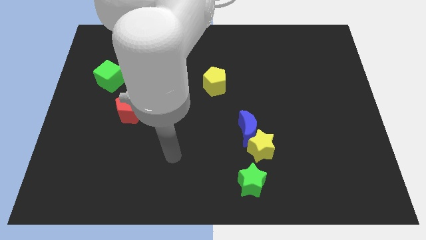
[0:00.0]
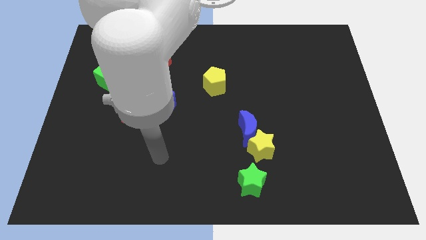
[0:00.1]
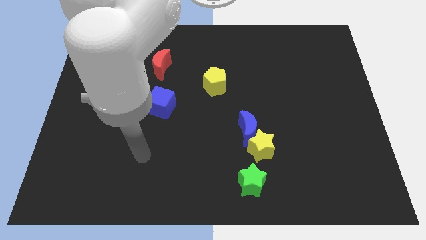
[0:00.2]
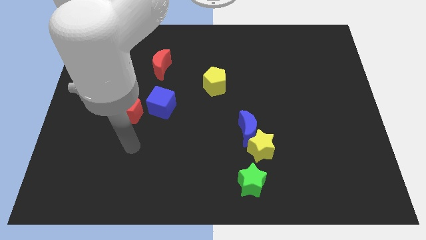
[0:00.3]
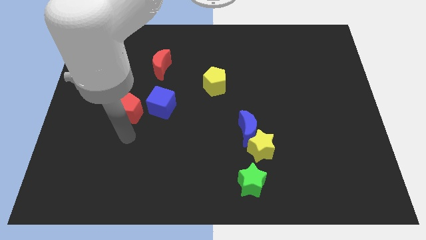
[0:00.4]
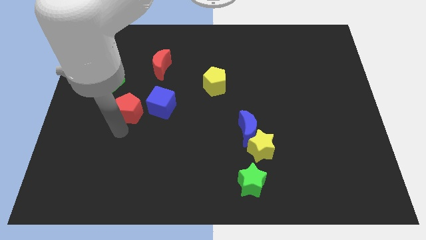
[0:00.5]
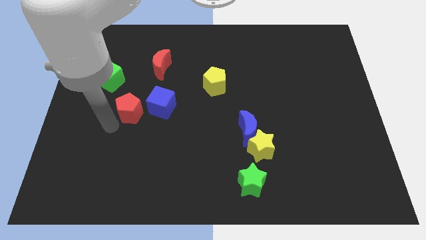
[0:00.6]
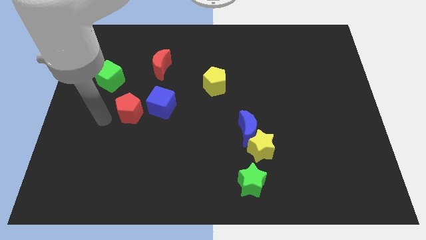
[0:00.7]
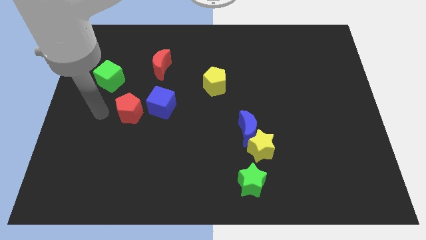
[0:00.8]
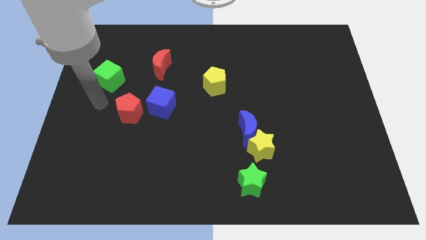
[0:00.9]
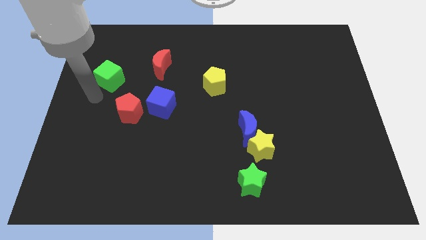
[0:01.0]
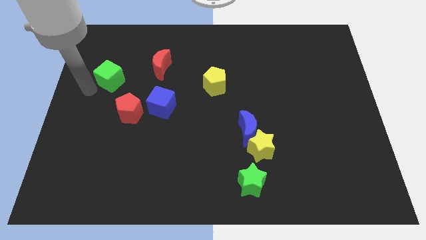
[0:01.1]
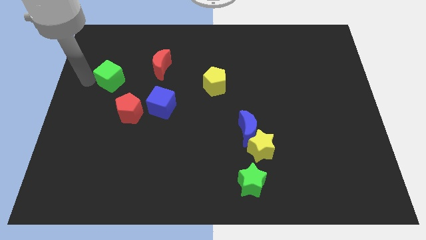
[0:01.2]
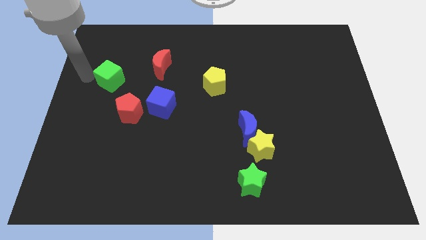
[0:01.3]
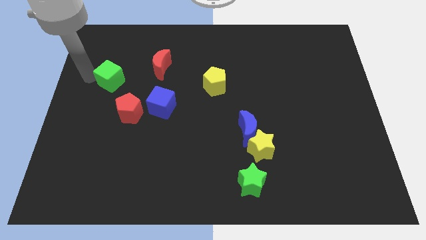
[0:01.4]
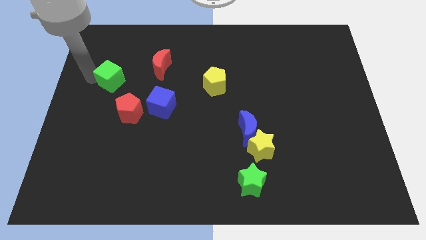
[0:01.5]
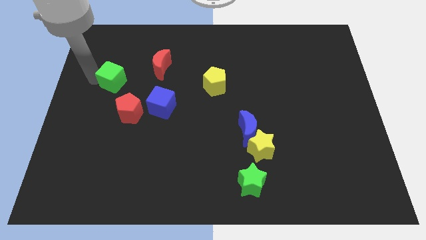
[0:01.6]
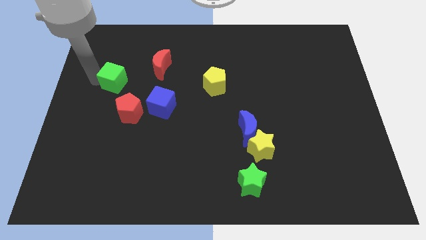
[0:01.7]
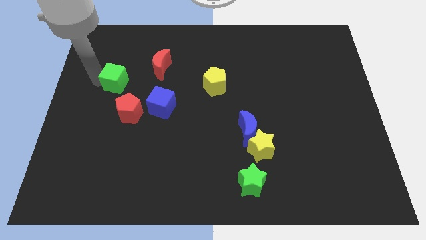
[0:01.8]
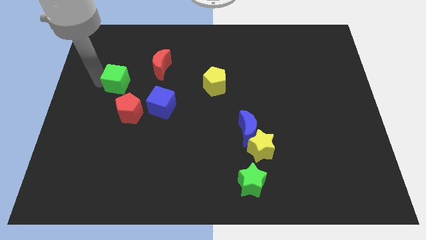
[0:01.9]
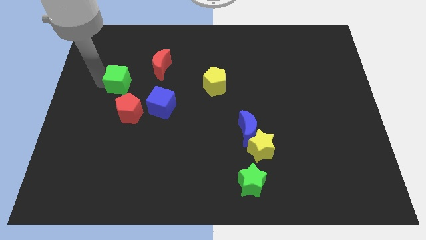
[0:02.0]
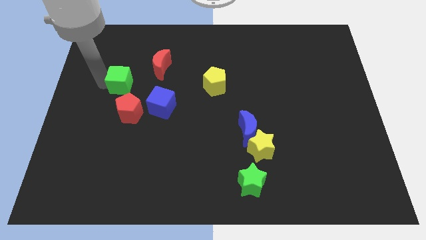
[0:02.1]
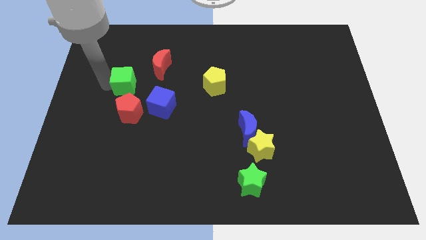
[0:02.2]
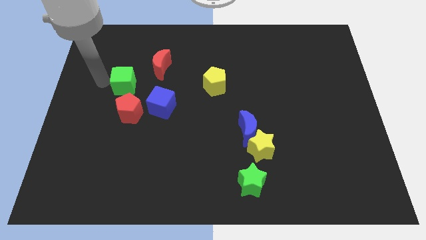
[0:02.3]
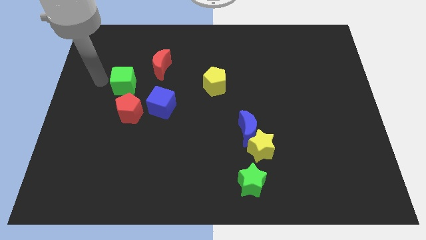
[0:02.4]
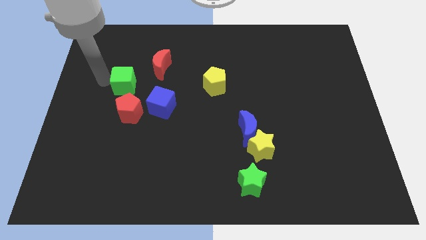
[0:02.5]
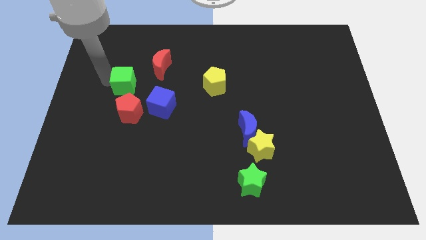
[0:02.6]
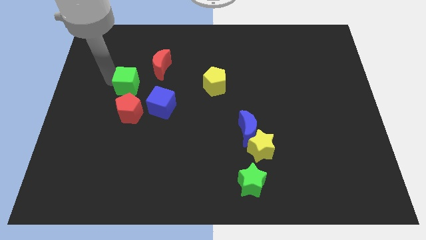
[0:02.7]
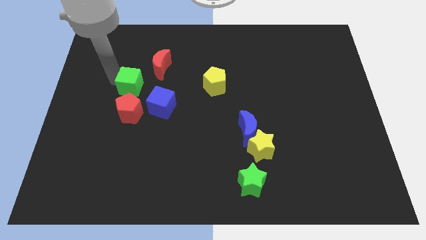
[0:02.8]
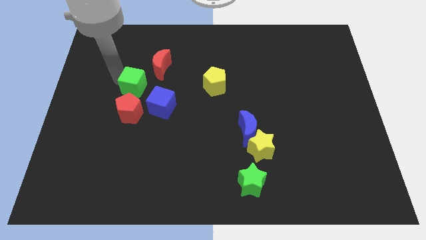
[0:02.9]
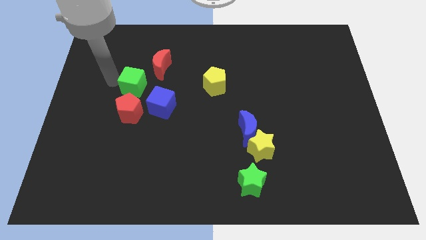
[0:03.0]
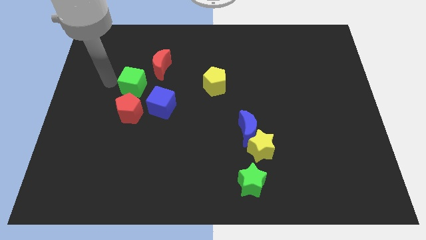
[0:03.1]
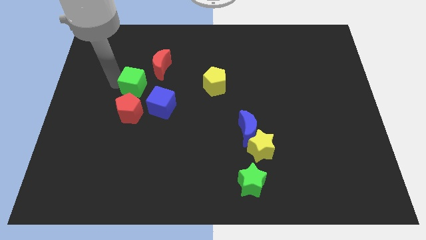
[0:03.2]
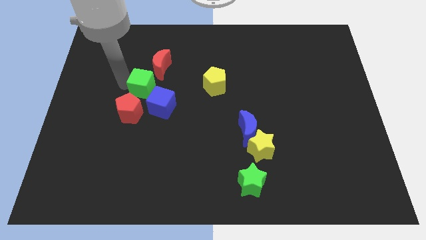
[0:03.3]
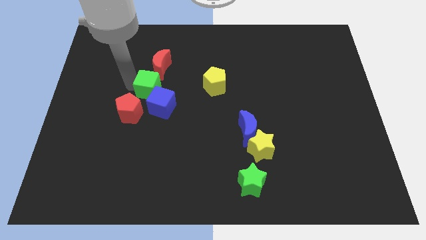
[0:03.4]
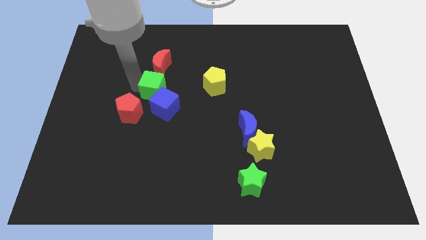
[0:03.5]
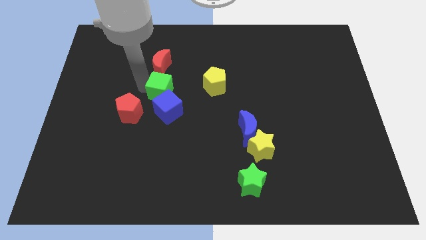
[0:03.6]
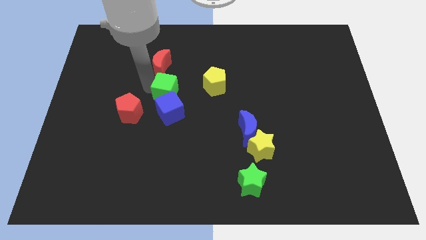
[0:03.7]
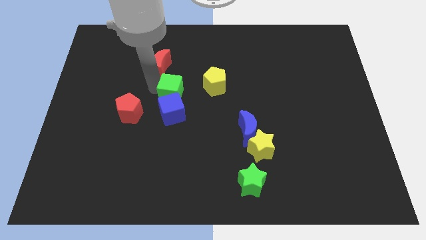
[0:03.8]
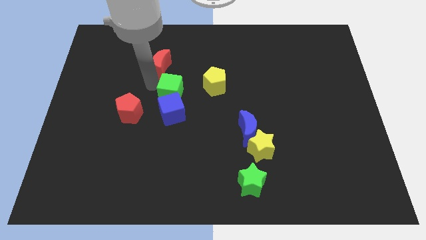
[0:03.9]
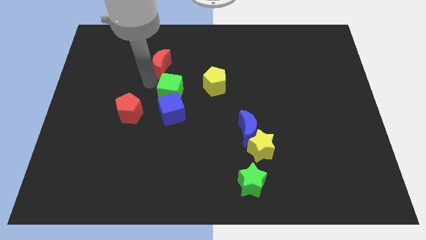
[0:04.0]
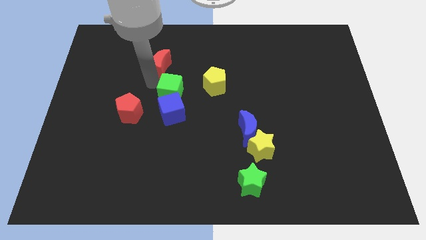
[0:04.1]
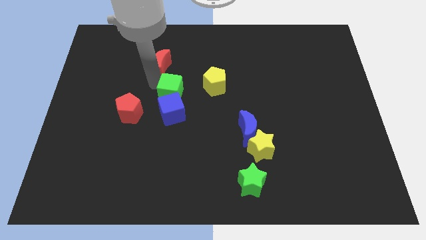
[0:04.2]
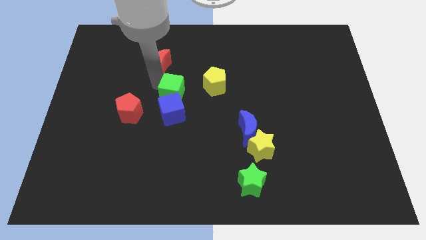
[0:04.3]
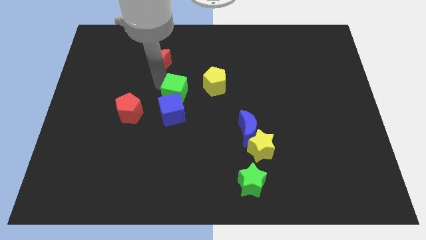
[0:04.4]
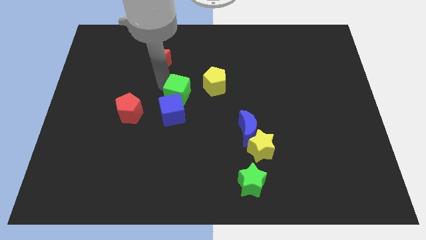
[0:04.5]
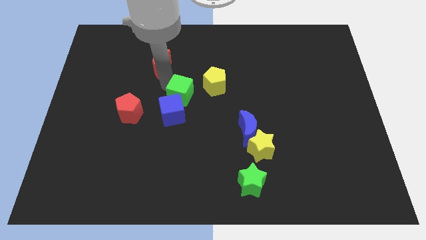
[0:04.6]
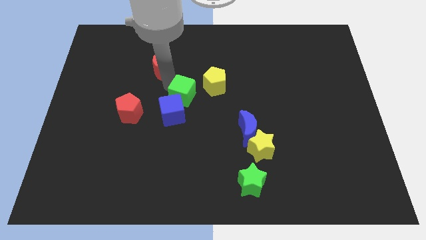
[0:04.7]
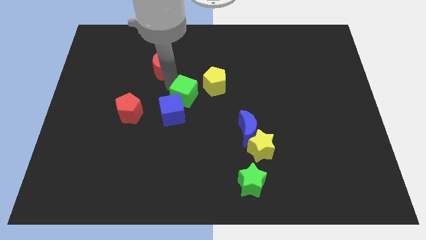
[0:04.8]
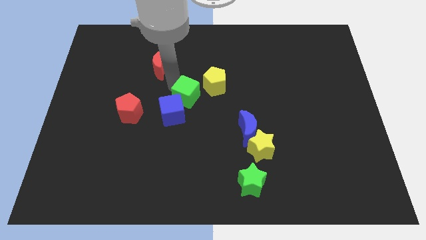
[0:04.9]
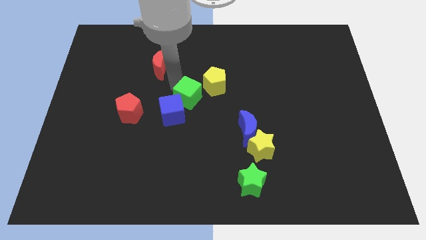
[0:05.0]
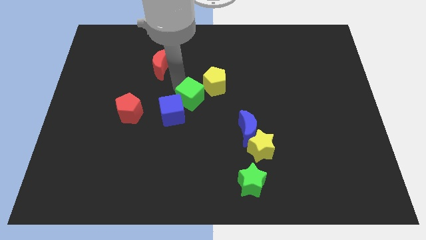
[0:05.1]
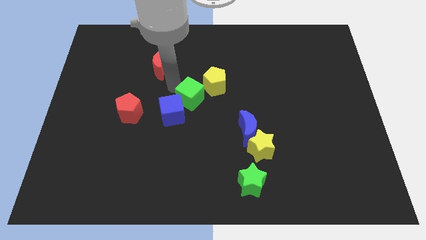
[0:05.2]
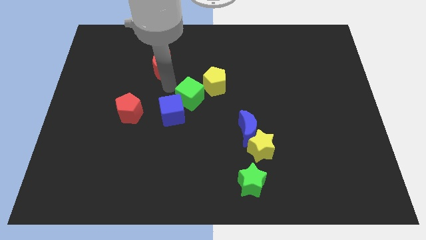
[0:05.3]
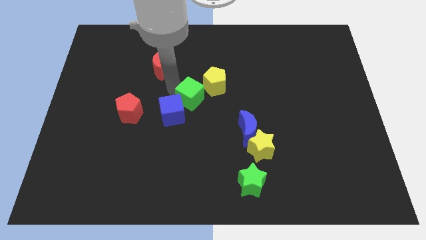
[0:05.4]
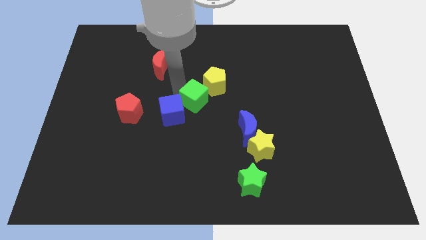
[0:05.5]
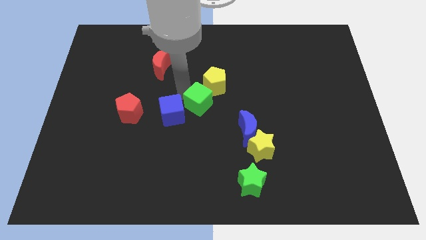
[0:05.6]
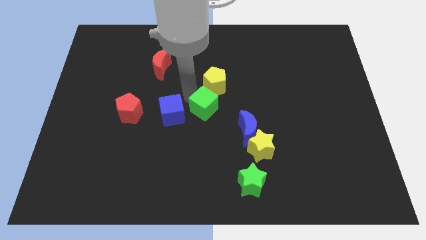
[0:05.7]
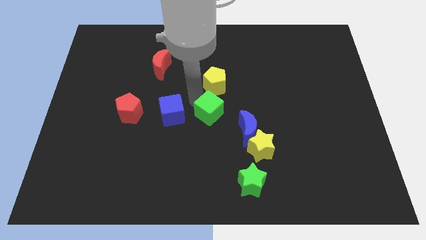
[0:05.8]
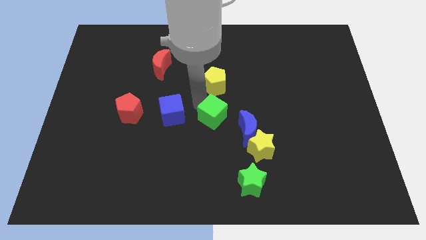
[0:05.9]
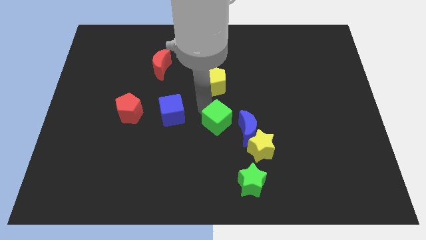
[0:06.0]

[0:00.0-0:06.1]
put the green cube to the top left of the yellow star

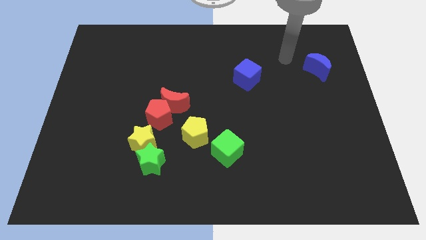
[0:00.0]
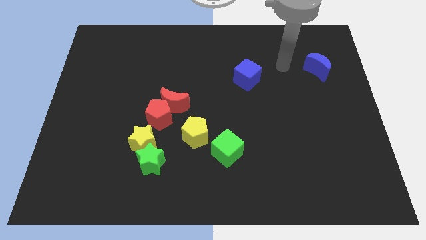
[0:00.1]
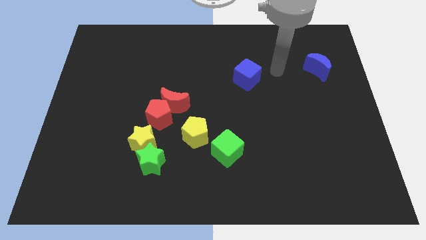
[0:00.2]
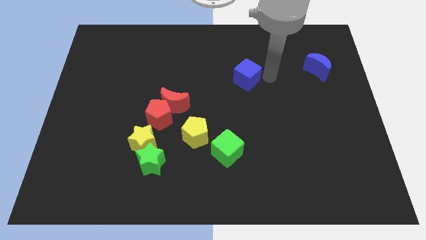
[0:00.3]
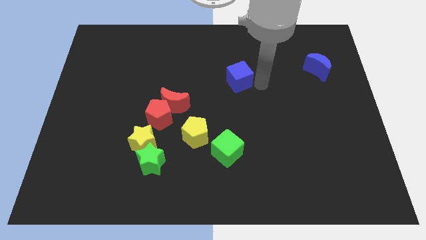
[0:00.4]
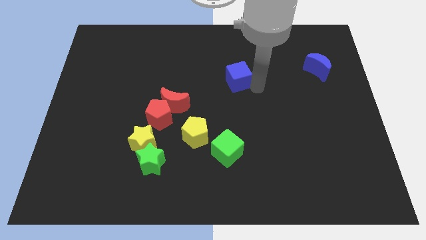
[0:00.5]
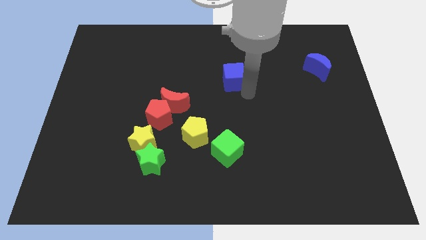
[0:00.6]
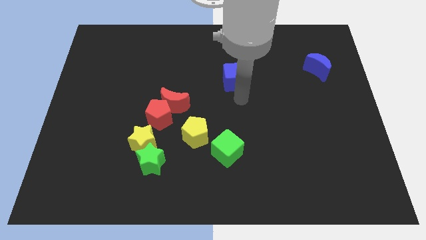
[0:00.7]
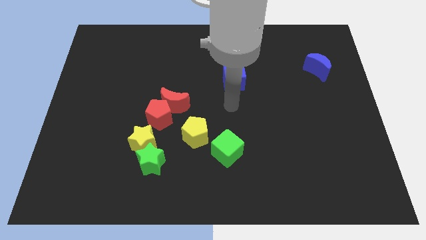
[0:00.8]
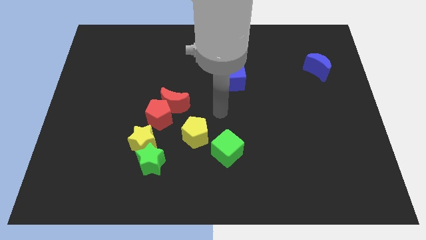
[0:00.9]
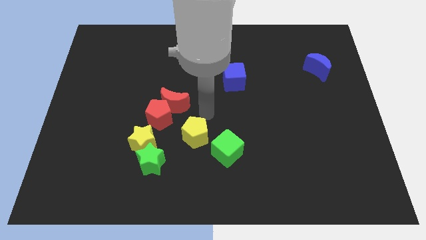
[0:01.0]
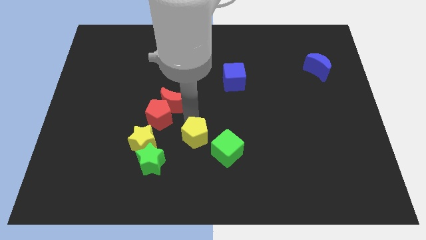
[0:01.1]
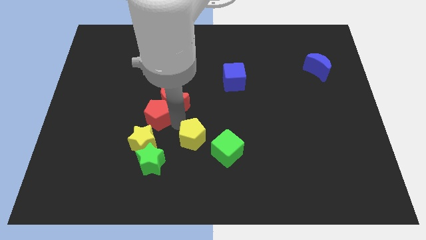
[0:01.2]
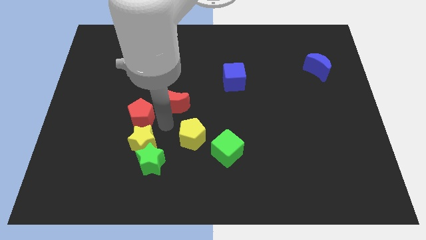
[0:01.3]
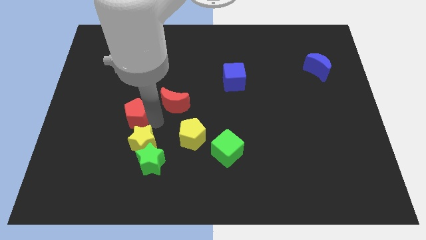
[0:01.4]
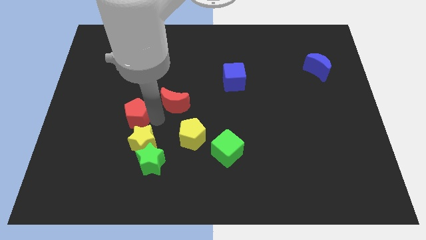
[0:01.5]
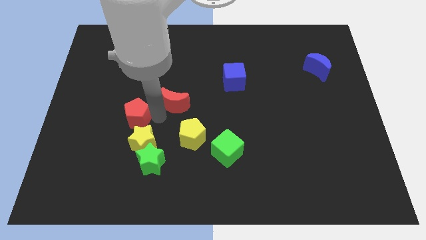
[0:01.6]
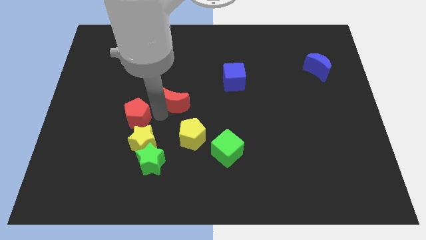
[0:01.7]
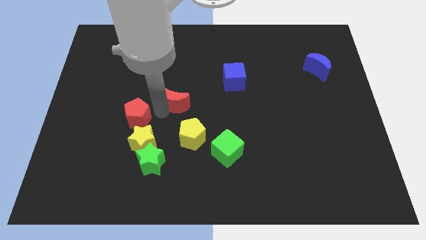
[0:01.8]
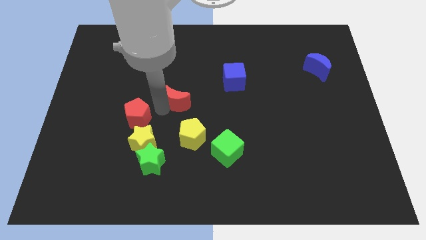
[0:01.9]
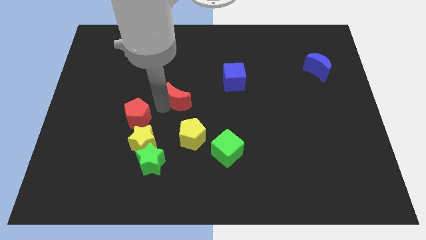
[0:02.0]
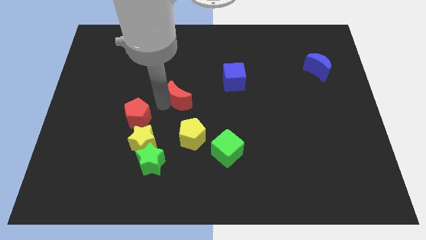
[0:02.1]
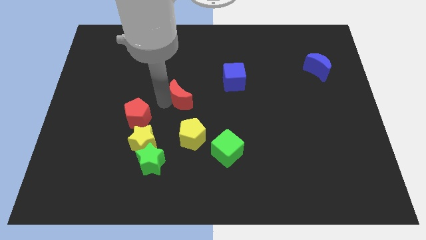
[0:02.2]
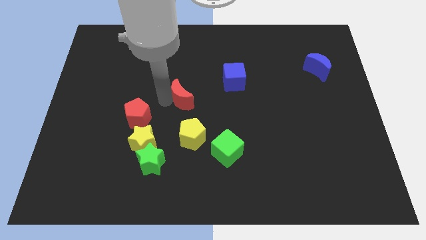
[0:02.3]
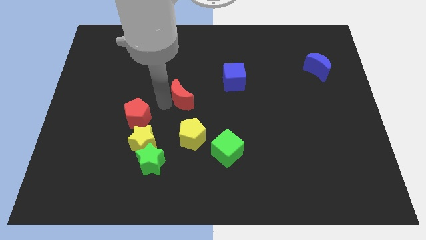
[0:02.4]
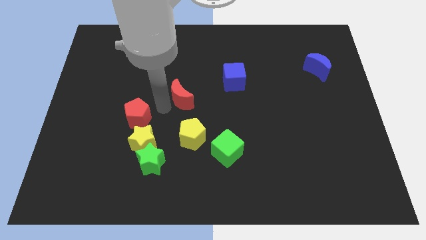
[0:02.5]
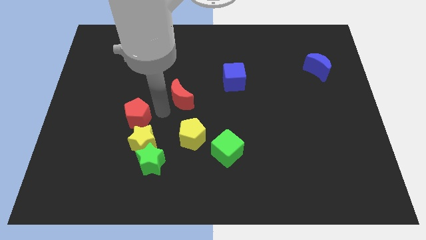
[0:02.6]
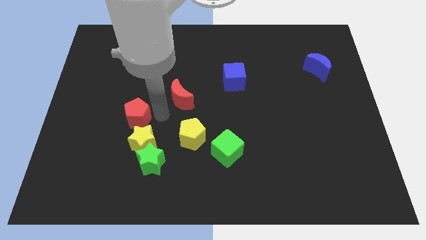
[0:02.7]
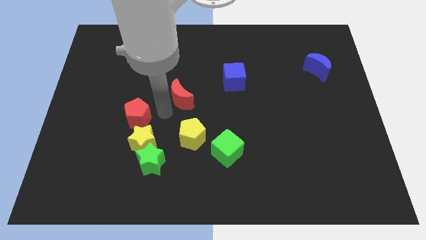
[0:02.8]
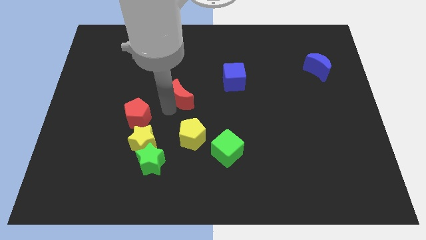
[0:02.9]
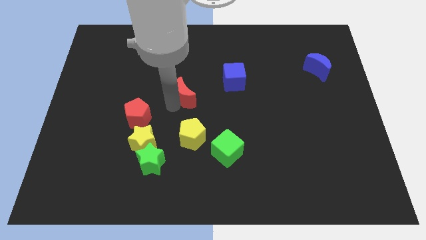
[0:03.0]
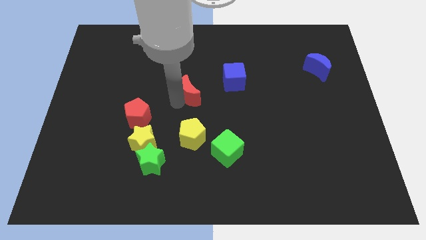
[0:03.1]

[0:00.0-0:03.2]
put the red moon left of the blue cube
